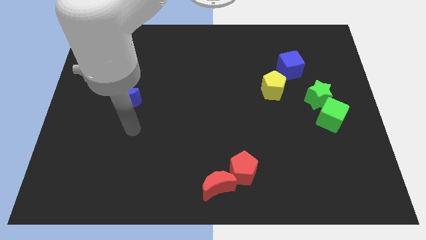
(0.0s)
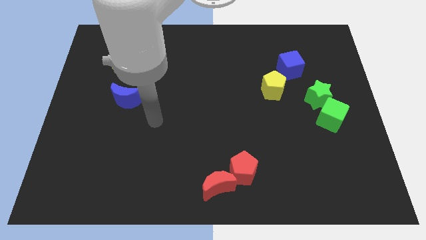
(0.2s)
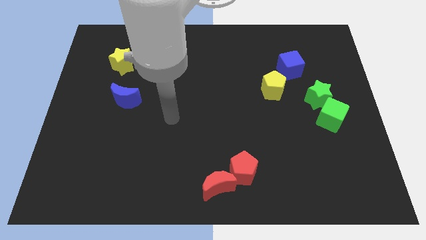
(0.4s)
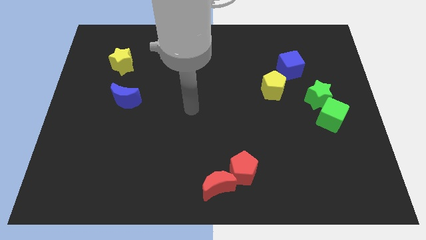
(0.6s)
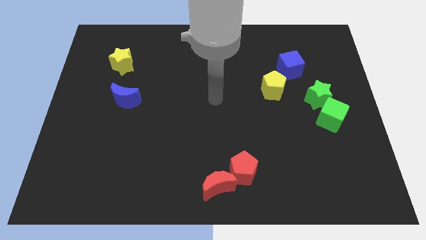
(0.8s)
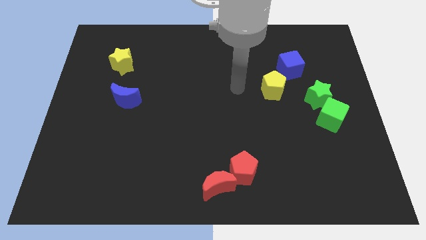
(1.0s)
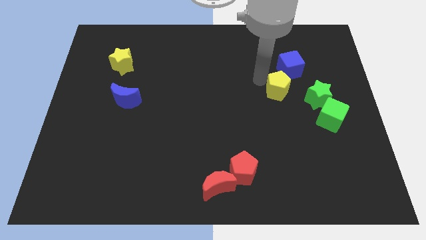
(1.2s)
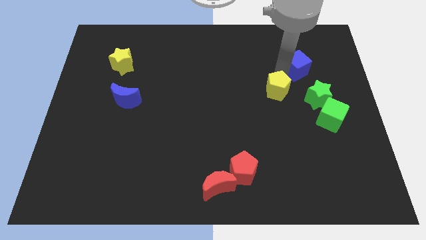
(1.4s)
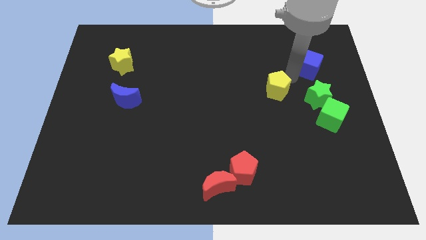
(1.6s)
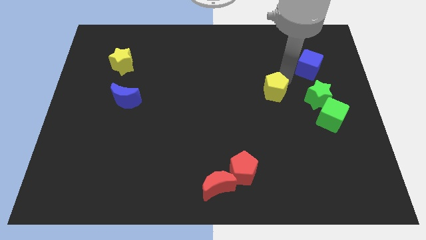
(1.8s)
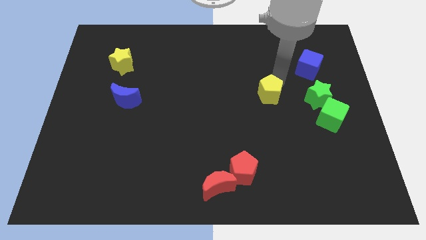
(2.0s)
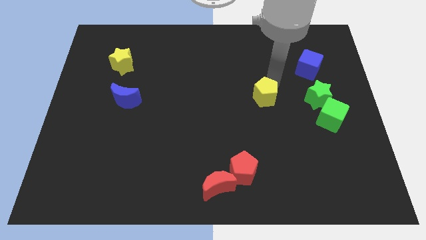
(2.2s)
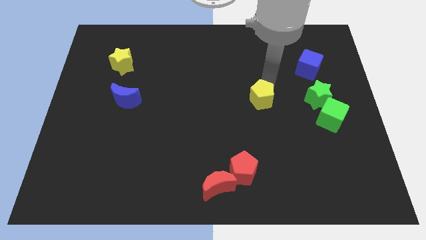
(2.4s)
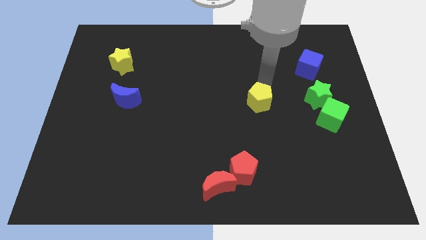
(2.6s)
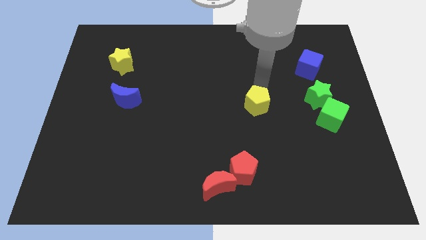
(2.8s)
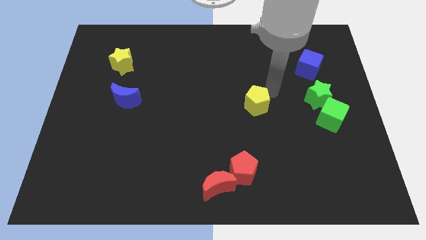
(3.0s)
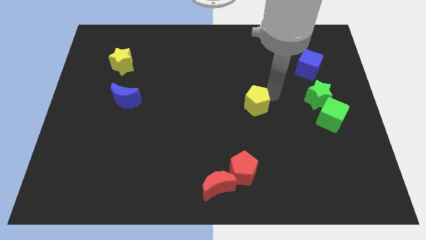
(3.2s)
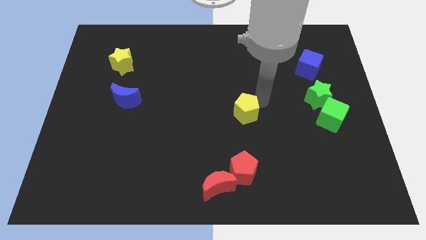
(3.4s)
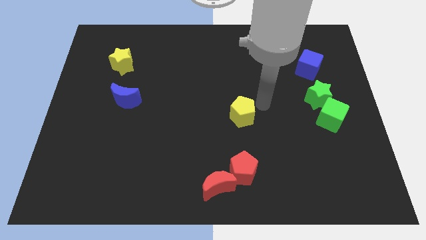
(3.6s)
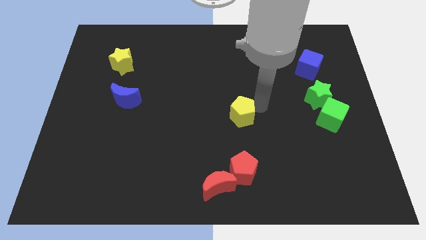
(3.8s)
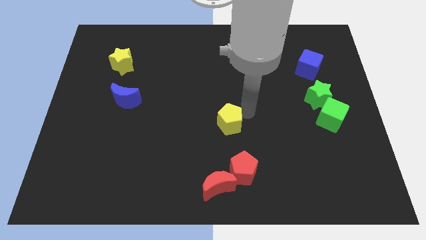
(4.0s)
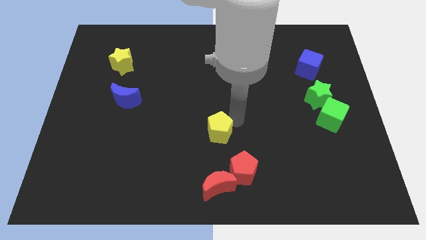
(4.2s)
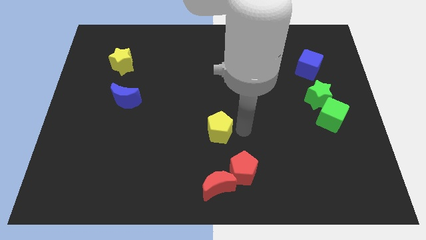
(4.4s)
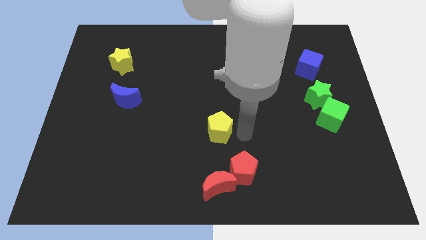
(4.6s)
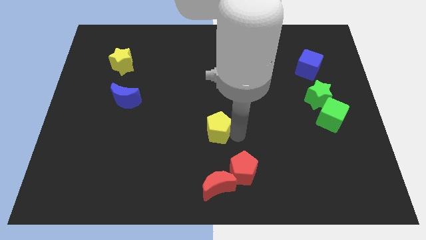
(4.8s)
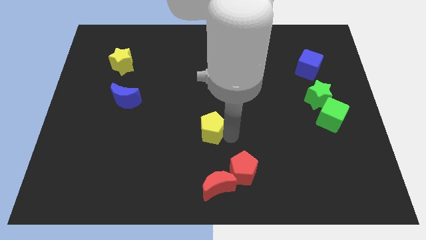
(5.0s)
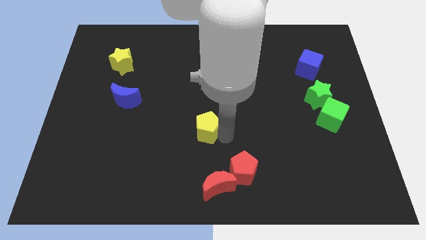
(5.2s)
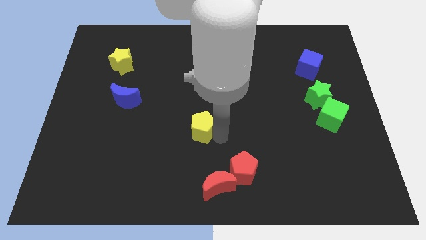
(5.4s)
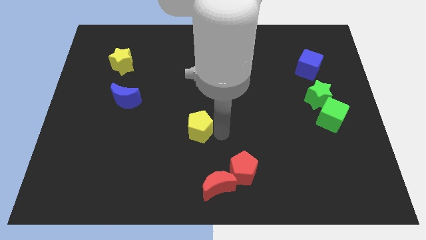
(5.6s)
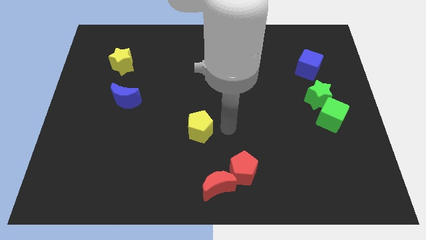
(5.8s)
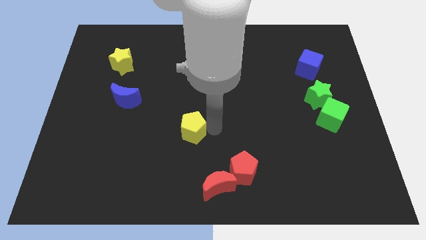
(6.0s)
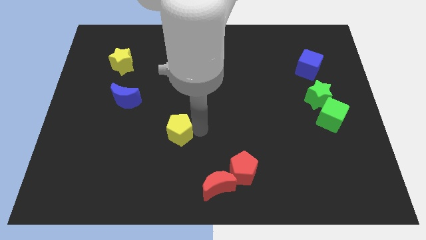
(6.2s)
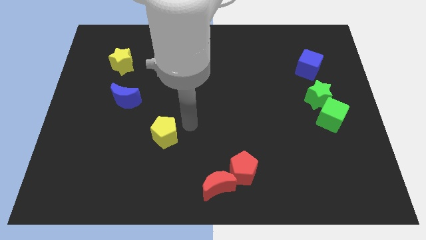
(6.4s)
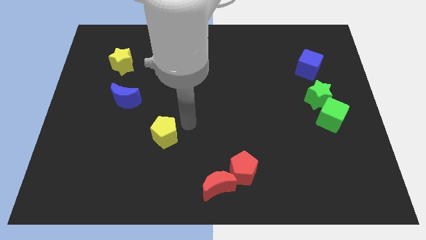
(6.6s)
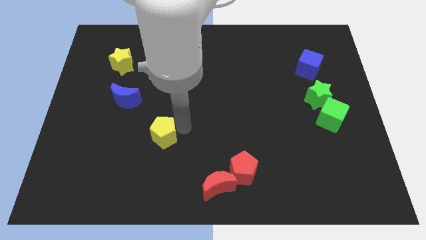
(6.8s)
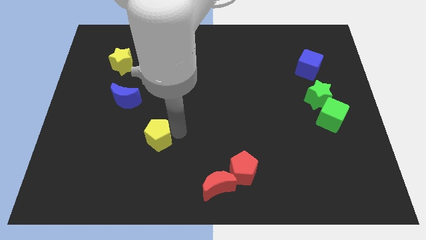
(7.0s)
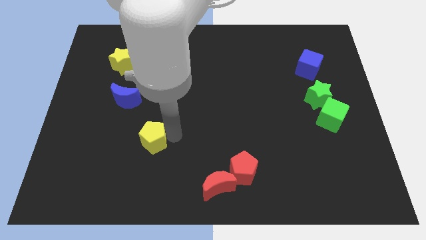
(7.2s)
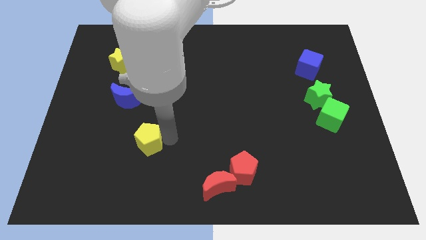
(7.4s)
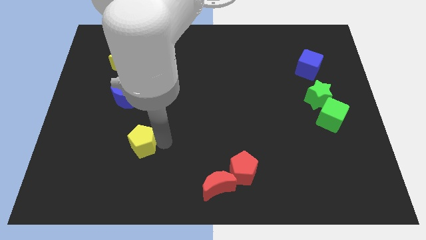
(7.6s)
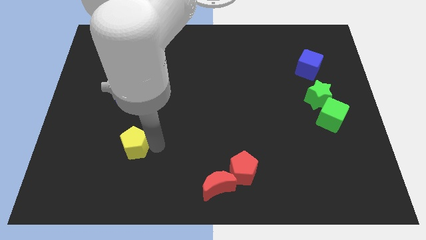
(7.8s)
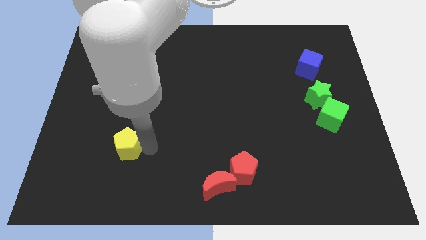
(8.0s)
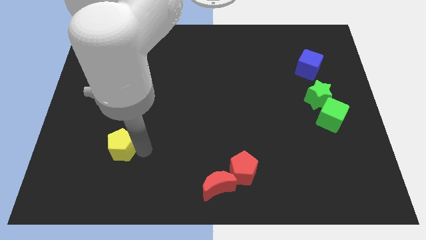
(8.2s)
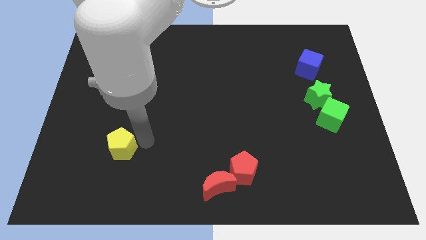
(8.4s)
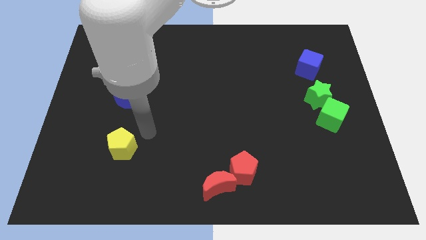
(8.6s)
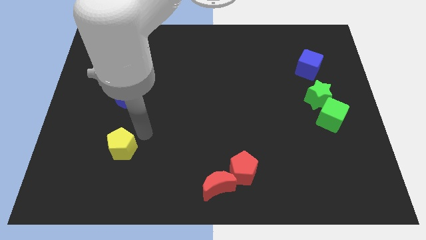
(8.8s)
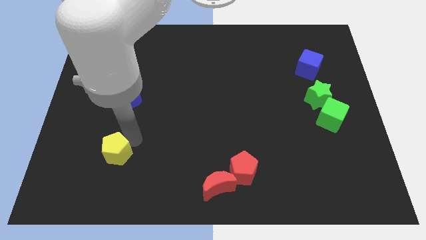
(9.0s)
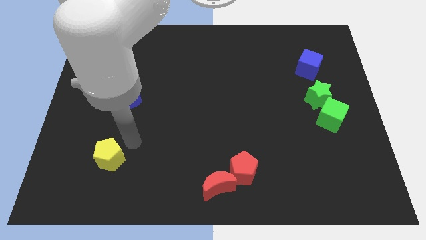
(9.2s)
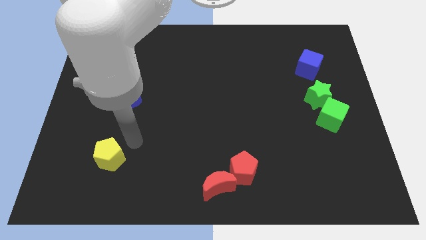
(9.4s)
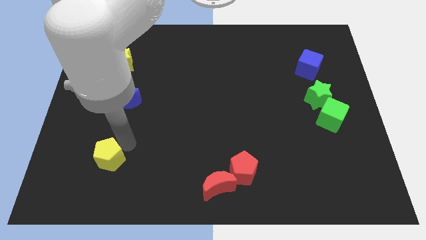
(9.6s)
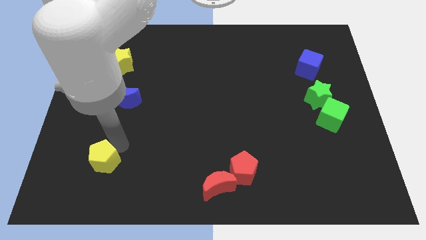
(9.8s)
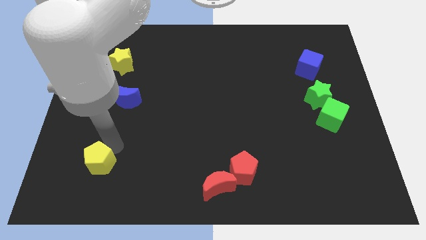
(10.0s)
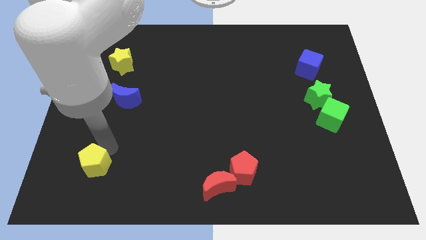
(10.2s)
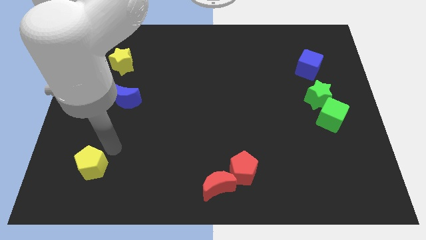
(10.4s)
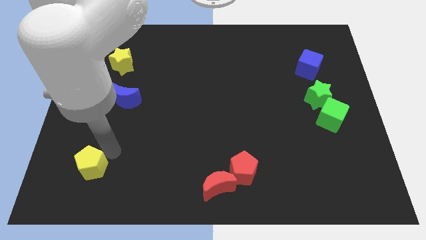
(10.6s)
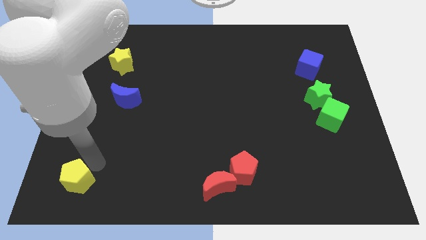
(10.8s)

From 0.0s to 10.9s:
move the yellow pentagon to the bottom left of the board
